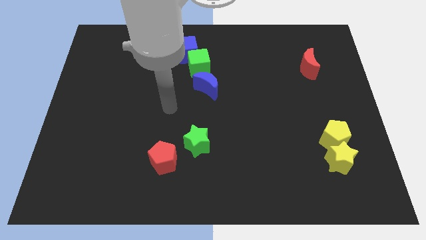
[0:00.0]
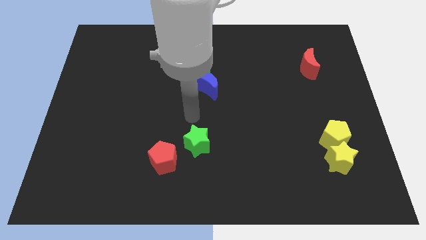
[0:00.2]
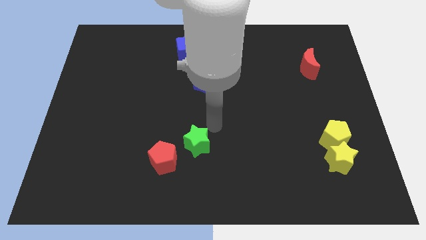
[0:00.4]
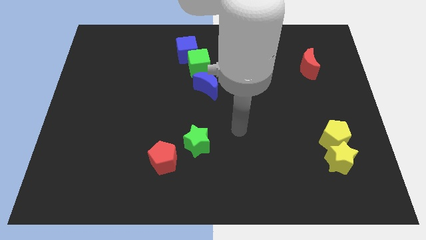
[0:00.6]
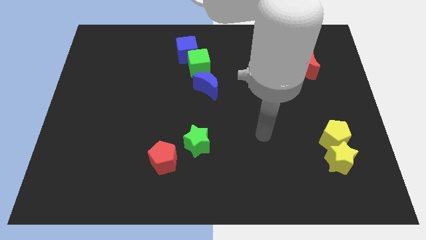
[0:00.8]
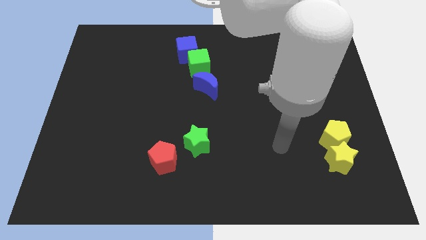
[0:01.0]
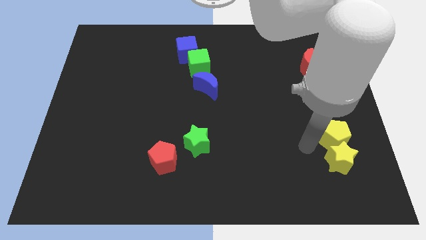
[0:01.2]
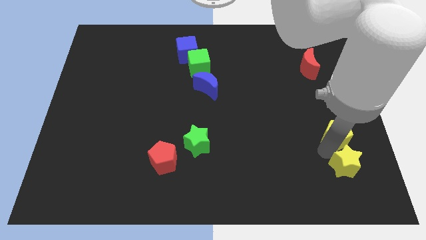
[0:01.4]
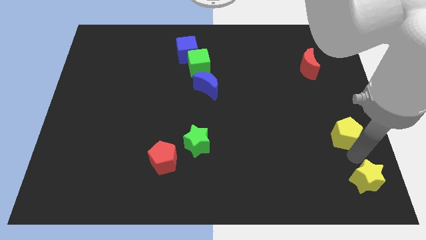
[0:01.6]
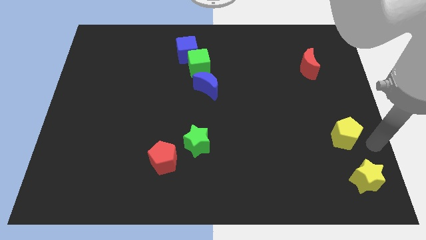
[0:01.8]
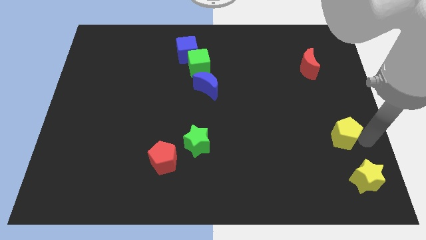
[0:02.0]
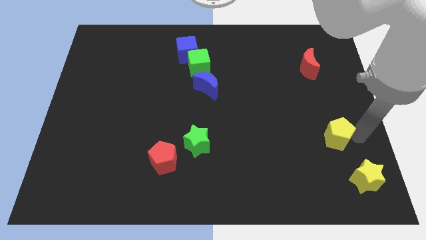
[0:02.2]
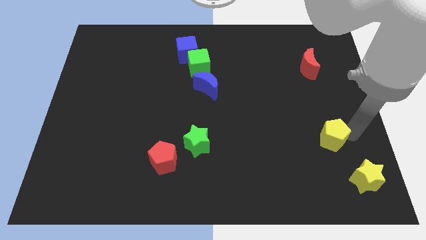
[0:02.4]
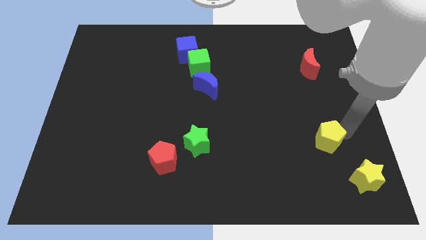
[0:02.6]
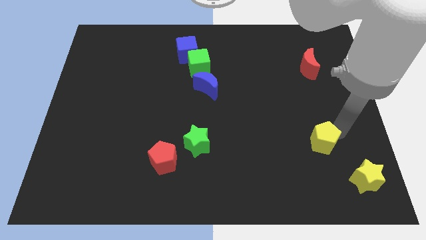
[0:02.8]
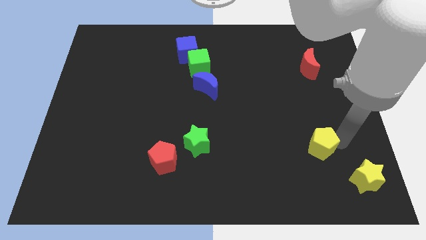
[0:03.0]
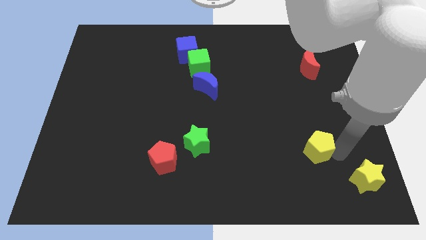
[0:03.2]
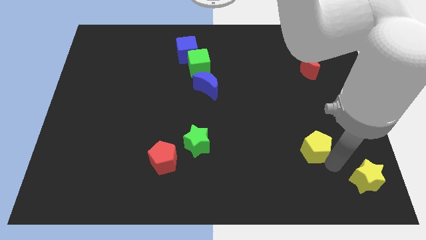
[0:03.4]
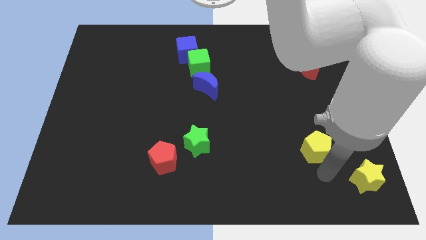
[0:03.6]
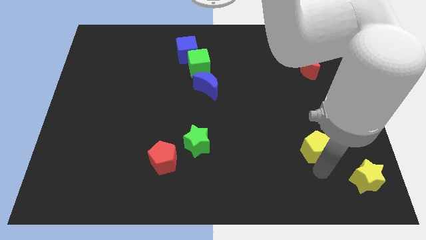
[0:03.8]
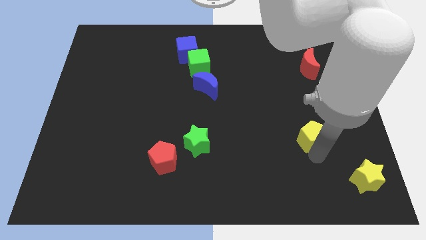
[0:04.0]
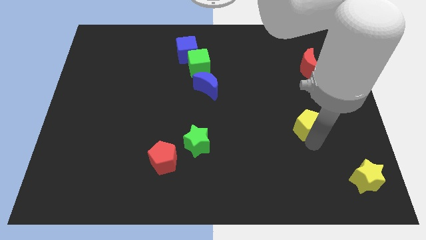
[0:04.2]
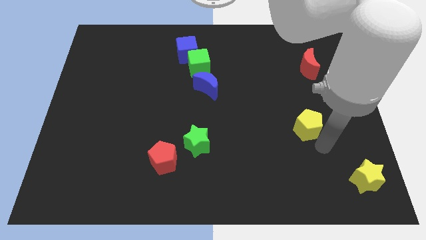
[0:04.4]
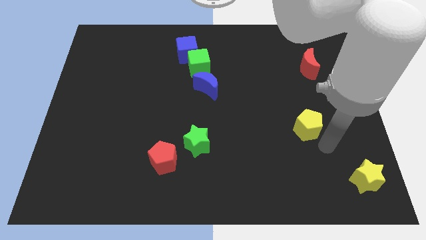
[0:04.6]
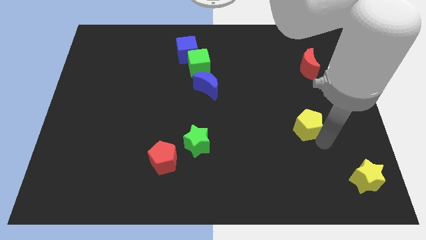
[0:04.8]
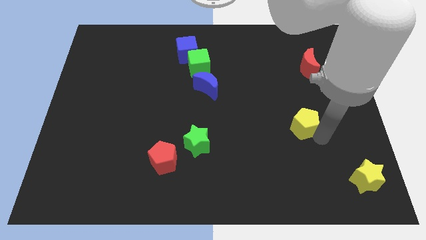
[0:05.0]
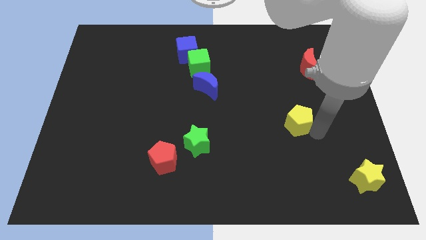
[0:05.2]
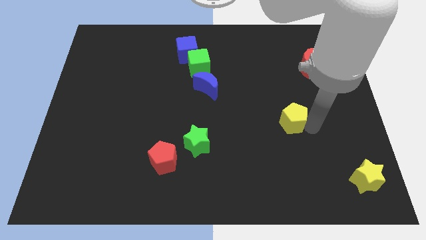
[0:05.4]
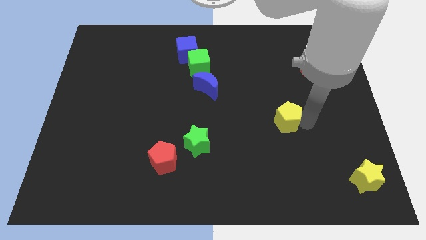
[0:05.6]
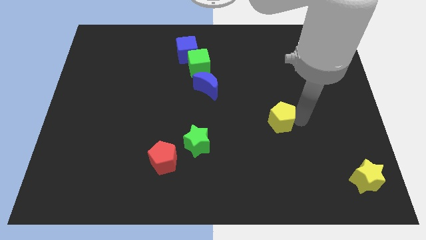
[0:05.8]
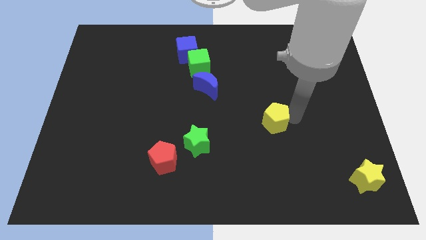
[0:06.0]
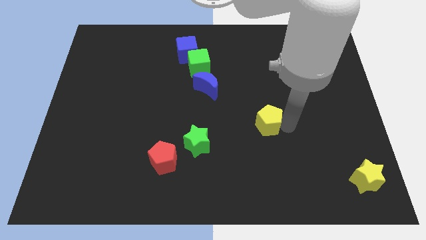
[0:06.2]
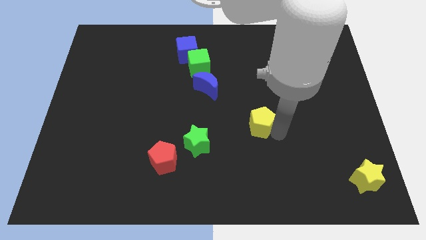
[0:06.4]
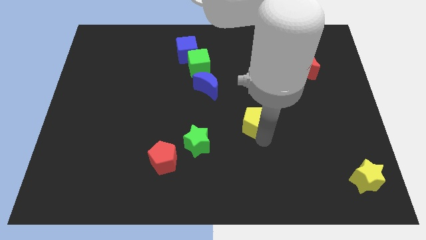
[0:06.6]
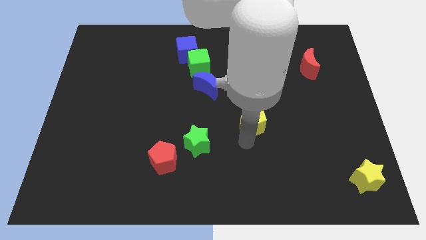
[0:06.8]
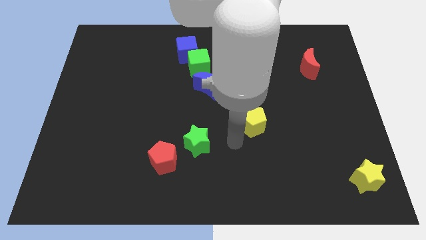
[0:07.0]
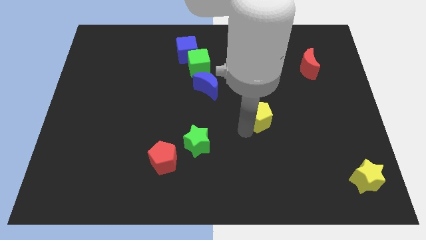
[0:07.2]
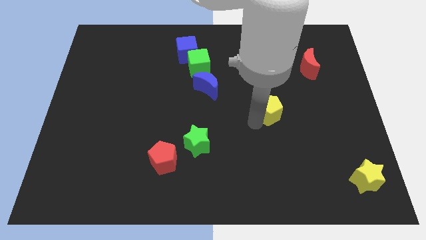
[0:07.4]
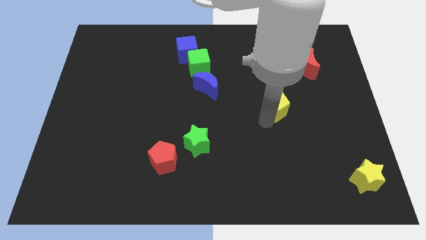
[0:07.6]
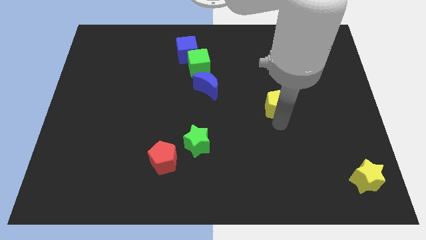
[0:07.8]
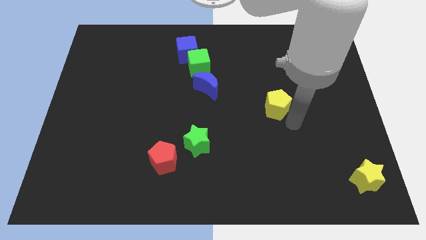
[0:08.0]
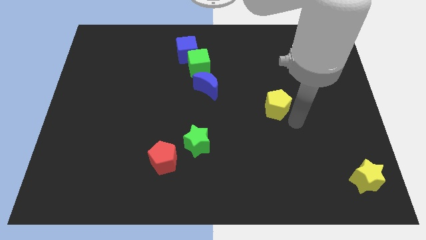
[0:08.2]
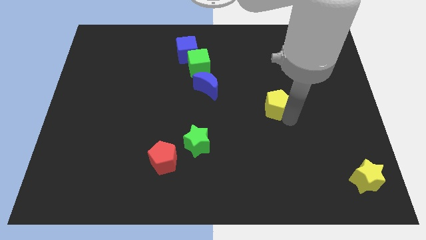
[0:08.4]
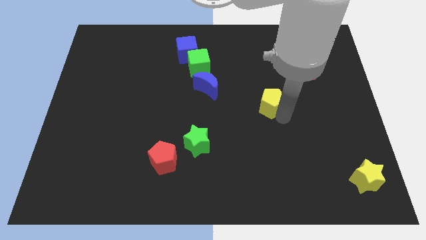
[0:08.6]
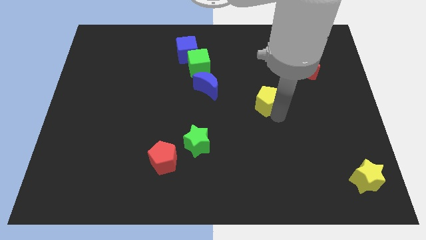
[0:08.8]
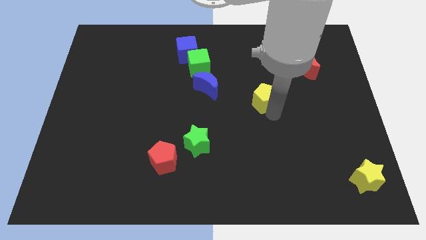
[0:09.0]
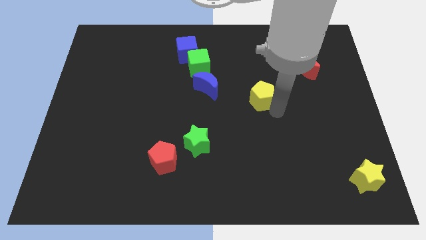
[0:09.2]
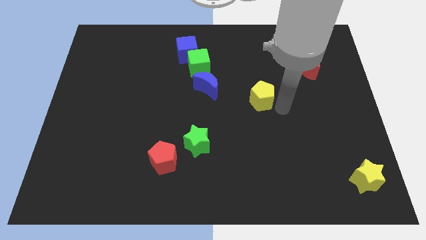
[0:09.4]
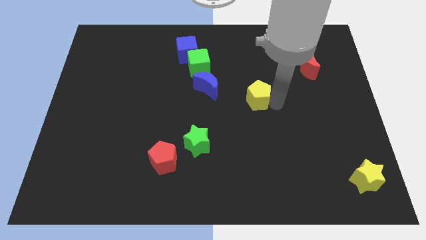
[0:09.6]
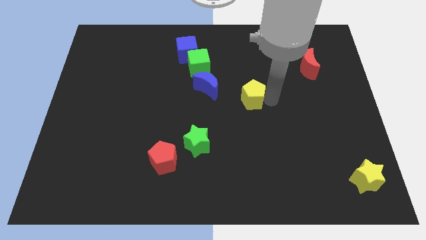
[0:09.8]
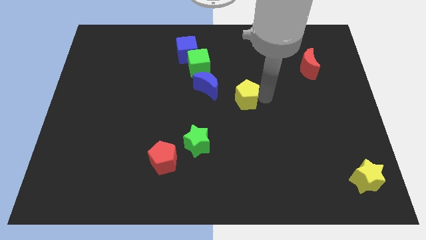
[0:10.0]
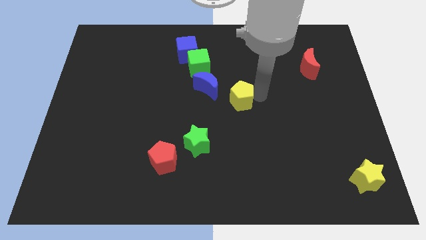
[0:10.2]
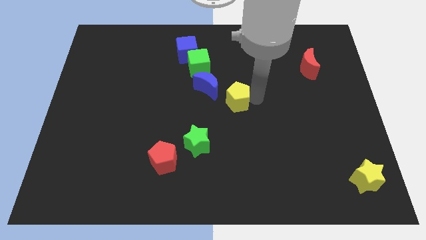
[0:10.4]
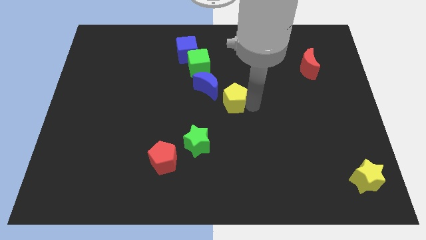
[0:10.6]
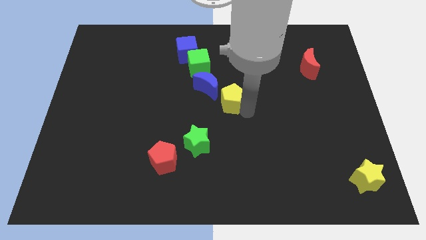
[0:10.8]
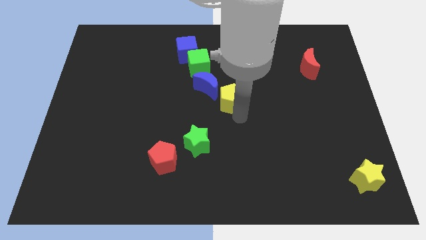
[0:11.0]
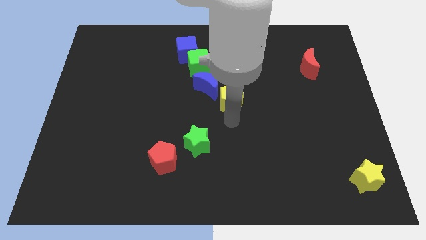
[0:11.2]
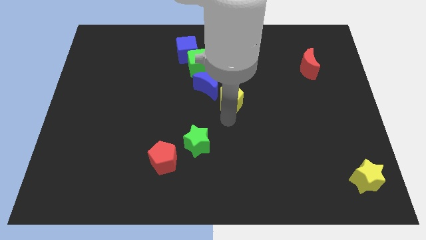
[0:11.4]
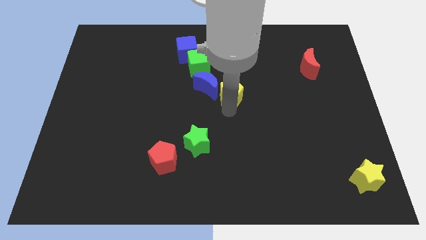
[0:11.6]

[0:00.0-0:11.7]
slide the yellow pentagon close to the blue moon

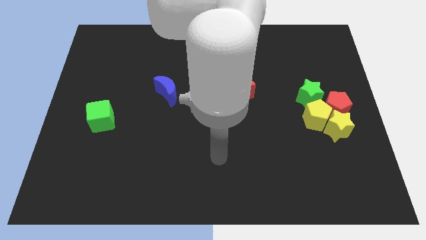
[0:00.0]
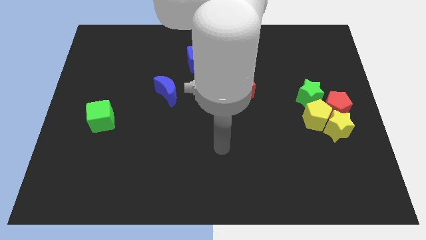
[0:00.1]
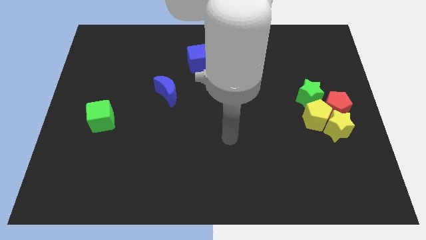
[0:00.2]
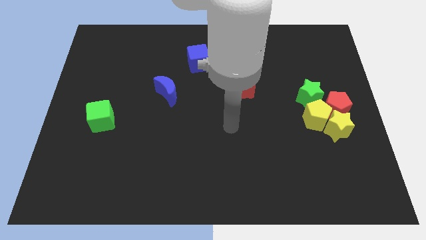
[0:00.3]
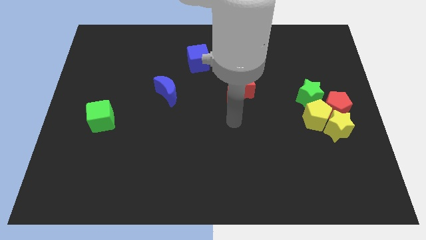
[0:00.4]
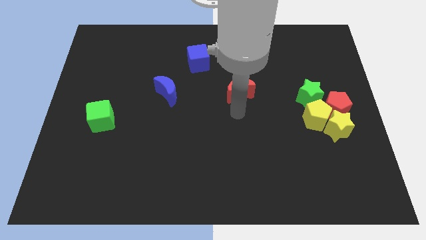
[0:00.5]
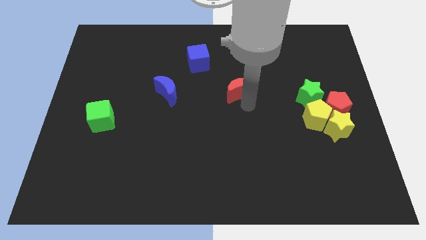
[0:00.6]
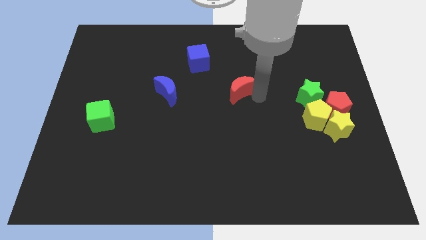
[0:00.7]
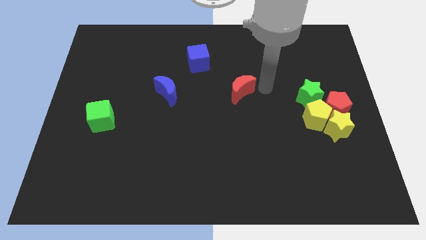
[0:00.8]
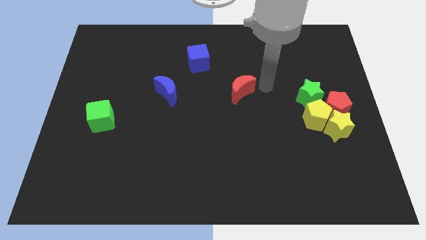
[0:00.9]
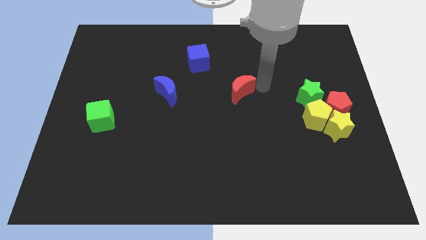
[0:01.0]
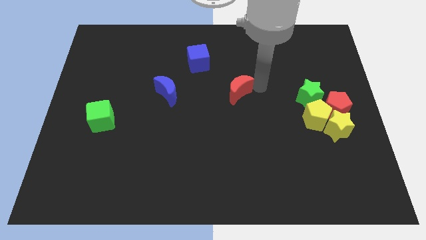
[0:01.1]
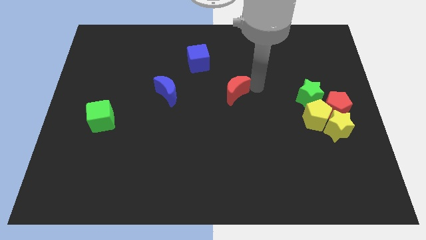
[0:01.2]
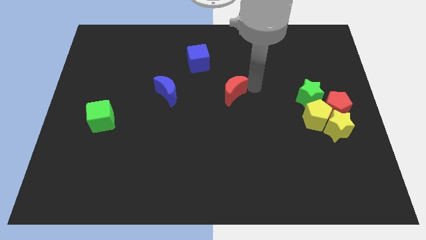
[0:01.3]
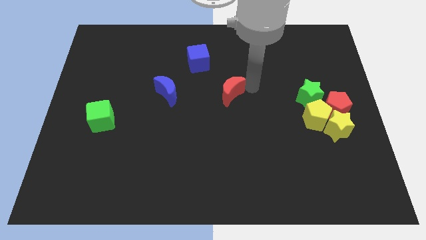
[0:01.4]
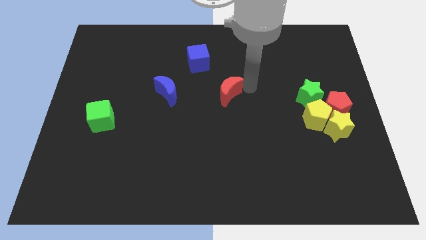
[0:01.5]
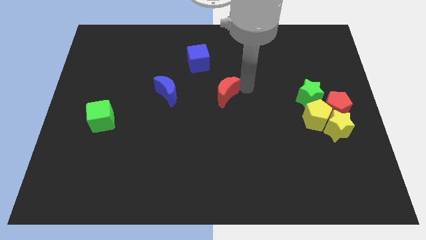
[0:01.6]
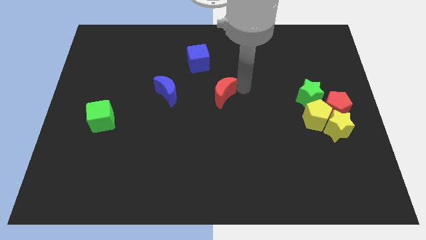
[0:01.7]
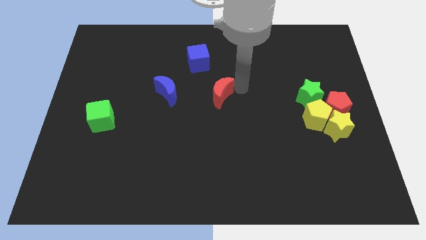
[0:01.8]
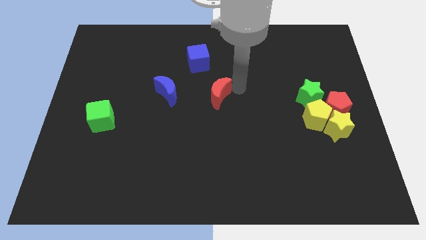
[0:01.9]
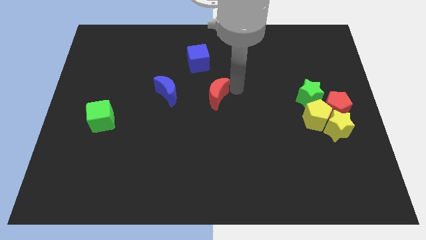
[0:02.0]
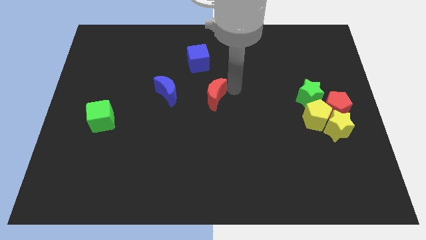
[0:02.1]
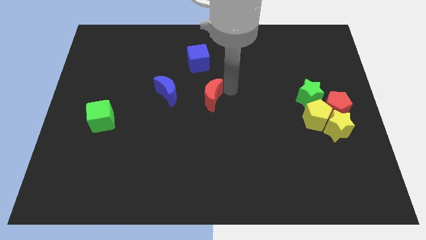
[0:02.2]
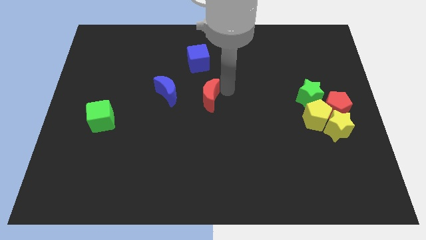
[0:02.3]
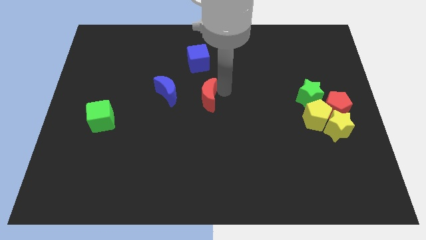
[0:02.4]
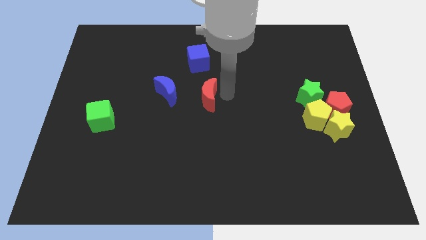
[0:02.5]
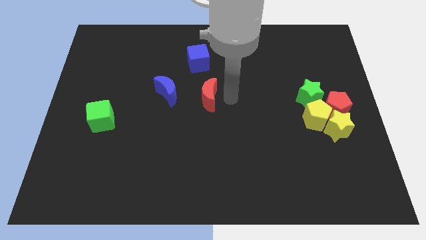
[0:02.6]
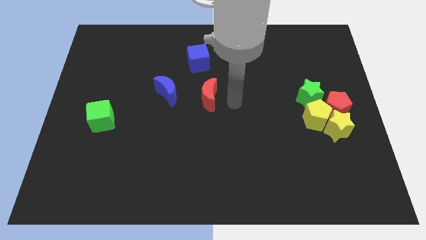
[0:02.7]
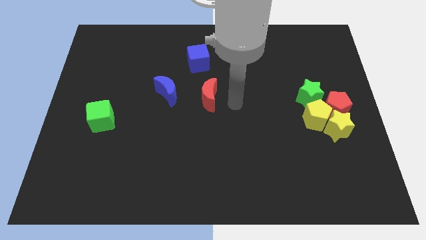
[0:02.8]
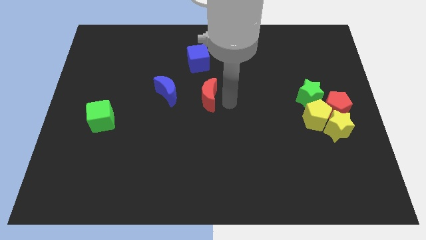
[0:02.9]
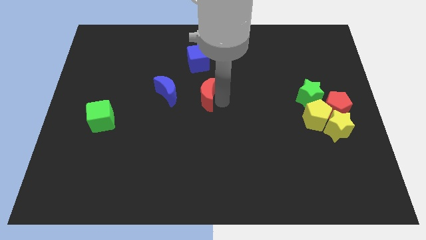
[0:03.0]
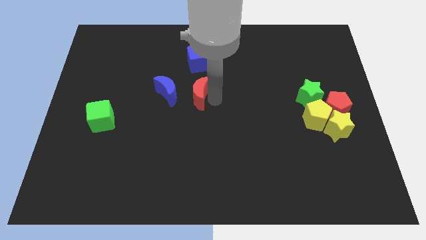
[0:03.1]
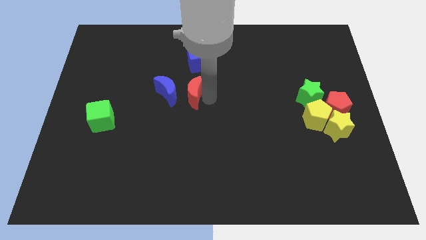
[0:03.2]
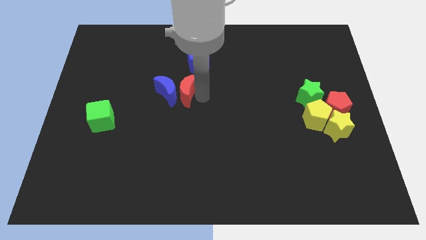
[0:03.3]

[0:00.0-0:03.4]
push the red moon to the blue moon
